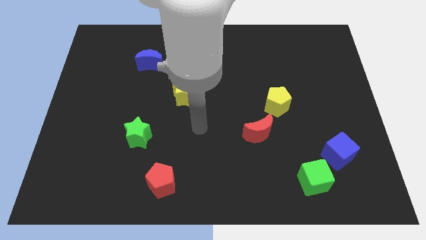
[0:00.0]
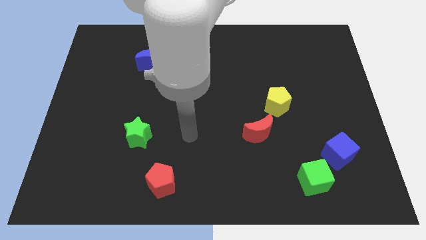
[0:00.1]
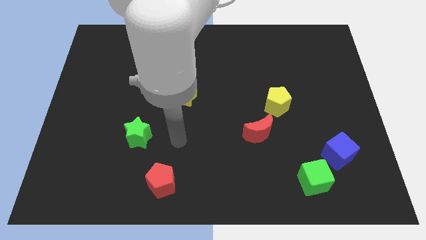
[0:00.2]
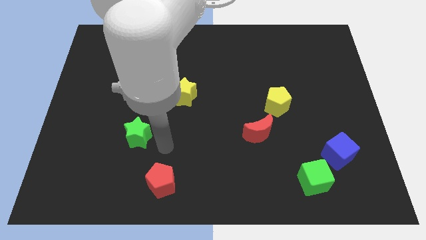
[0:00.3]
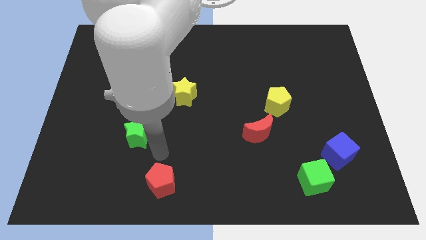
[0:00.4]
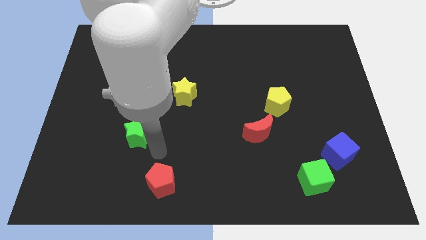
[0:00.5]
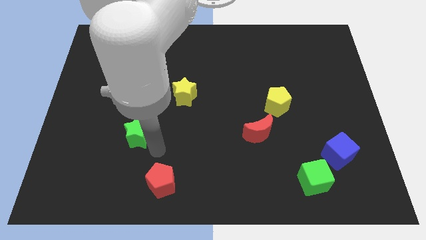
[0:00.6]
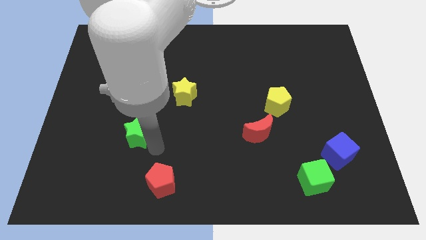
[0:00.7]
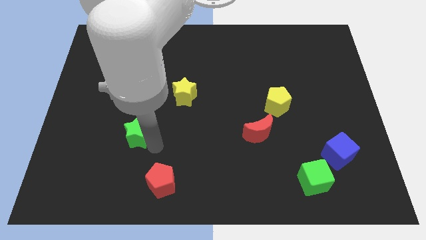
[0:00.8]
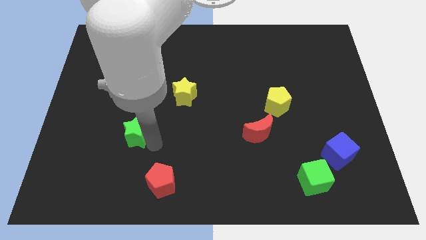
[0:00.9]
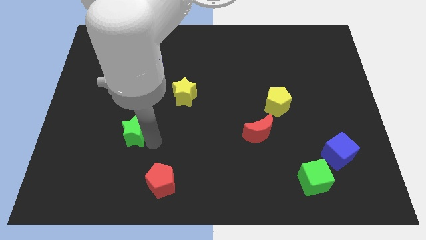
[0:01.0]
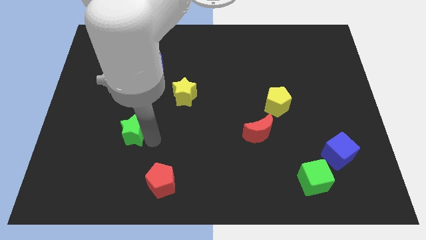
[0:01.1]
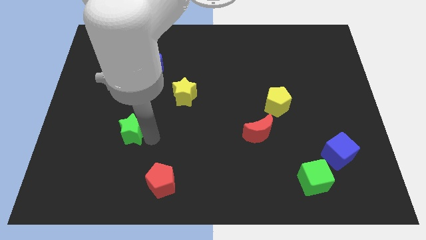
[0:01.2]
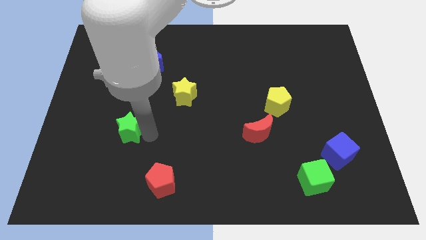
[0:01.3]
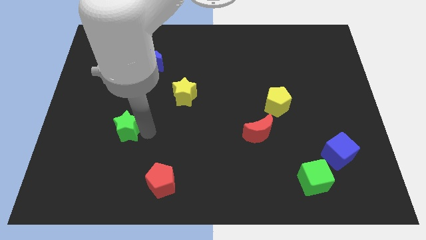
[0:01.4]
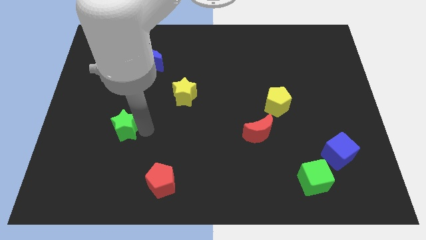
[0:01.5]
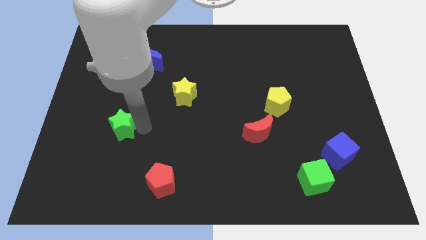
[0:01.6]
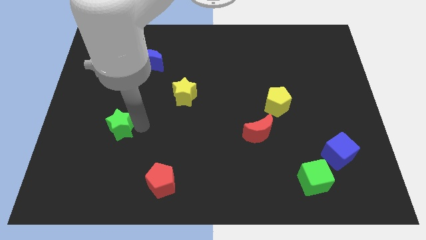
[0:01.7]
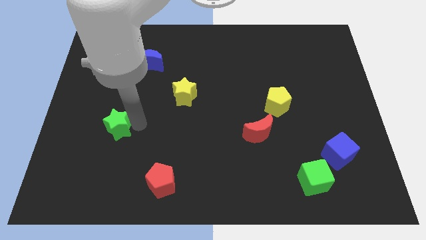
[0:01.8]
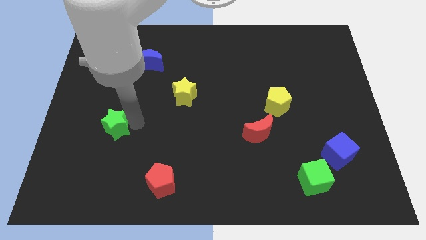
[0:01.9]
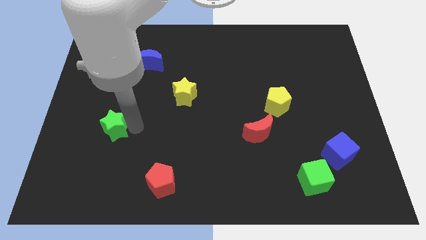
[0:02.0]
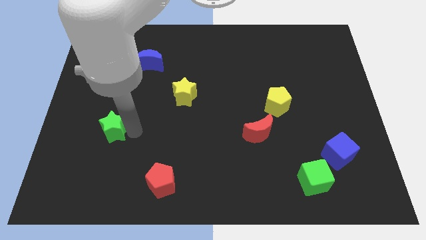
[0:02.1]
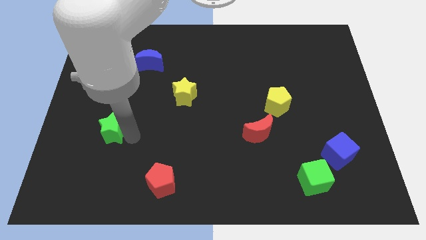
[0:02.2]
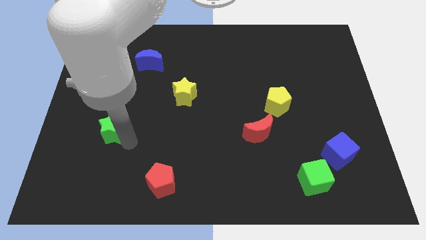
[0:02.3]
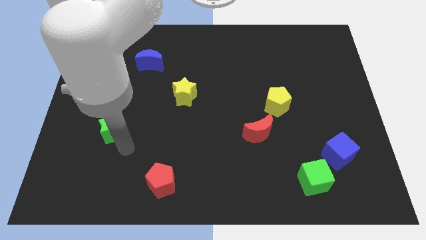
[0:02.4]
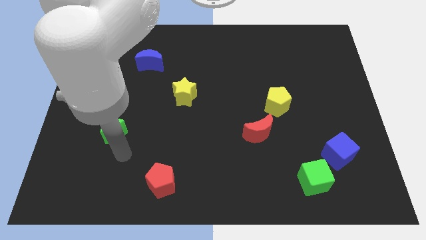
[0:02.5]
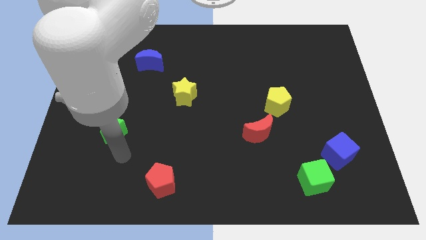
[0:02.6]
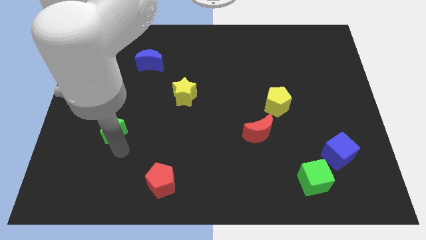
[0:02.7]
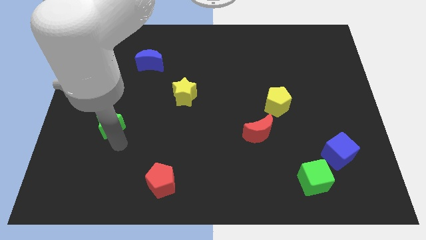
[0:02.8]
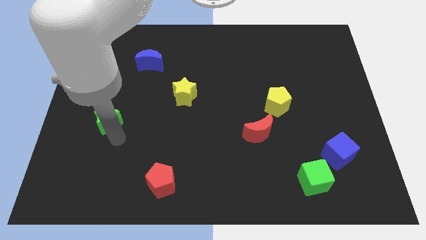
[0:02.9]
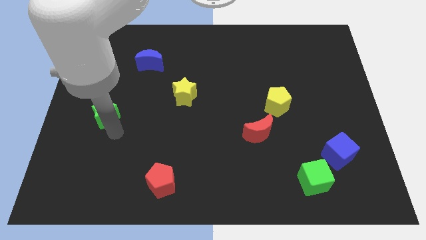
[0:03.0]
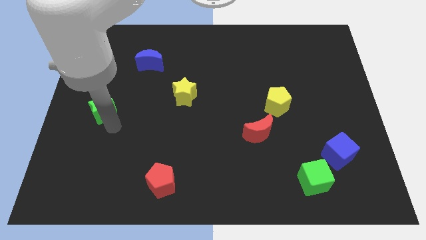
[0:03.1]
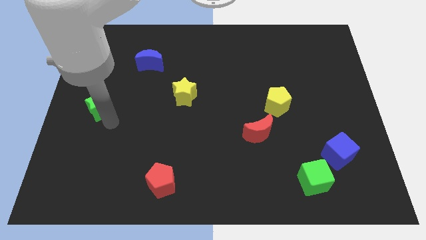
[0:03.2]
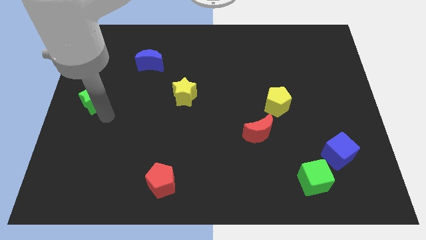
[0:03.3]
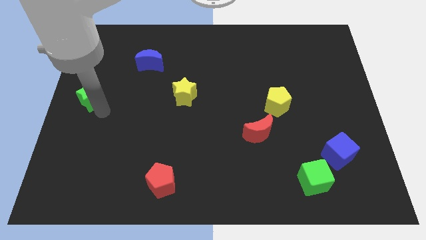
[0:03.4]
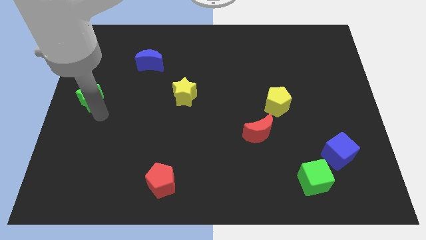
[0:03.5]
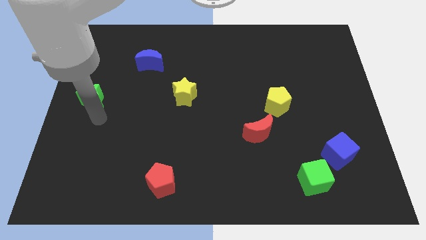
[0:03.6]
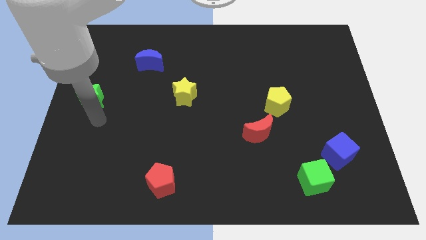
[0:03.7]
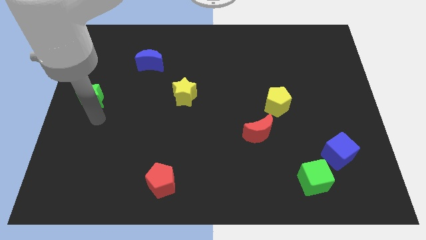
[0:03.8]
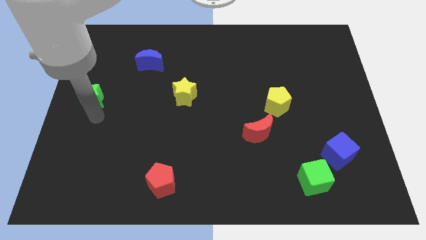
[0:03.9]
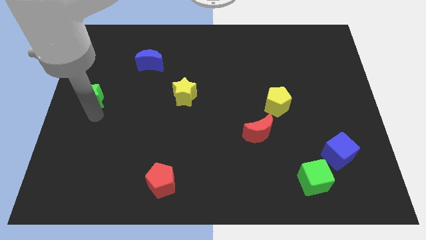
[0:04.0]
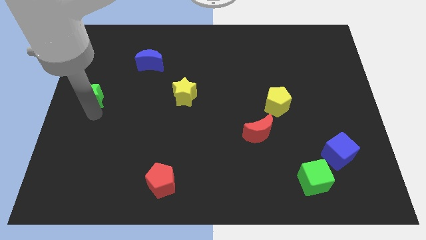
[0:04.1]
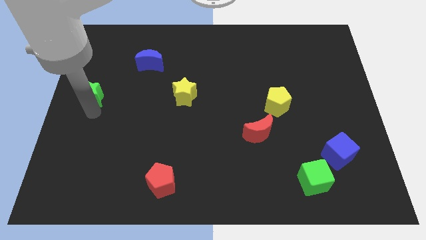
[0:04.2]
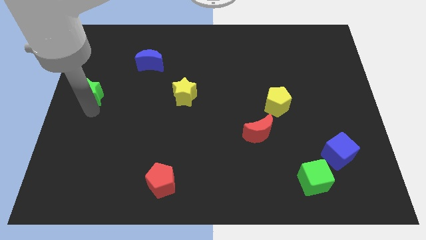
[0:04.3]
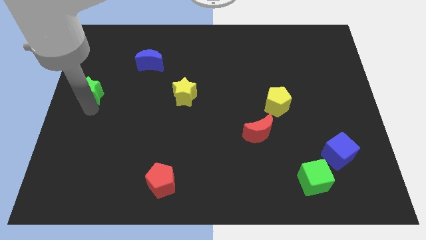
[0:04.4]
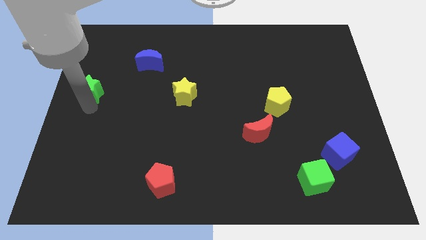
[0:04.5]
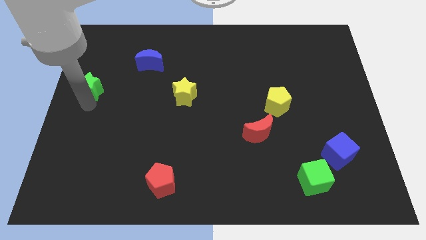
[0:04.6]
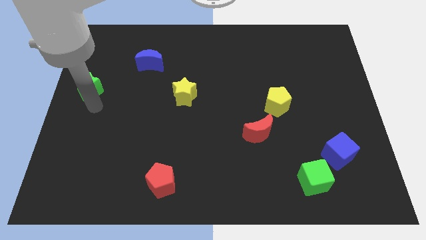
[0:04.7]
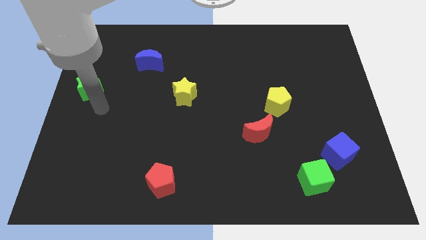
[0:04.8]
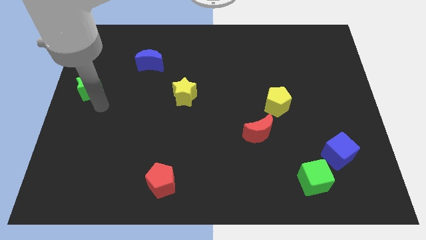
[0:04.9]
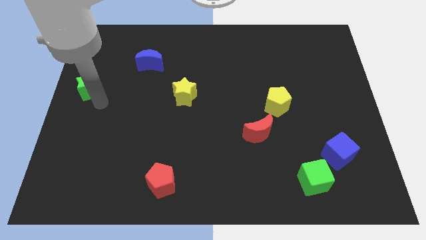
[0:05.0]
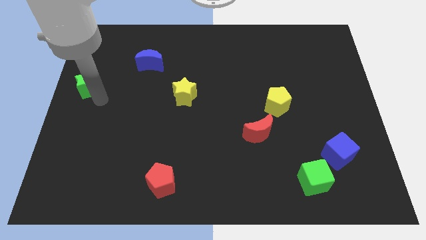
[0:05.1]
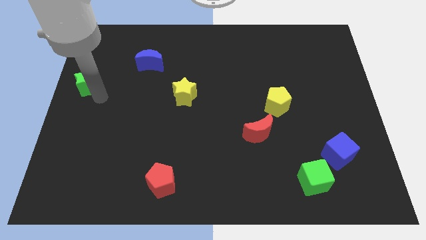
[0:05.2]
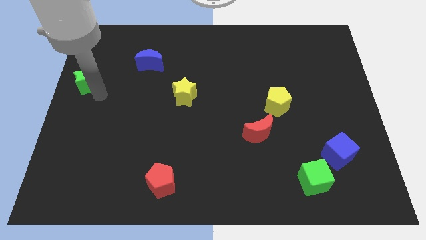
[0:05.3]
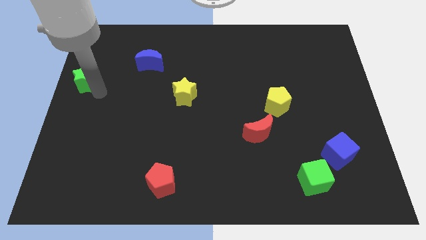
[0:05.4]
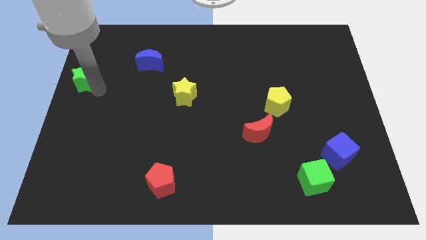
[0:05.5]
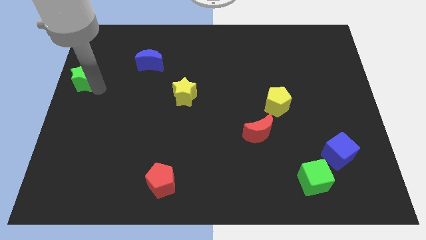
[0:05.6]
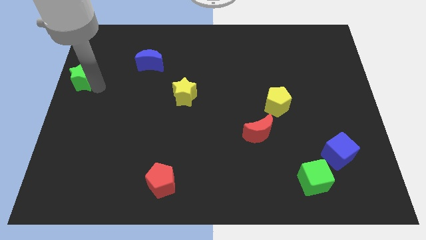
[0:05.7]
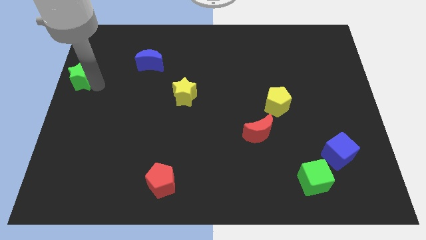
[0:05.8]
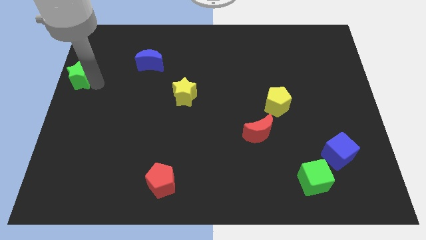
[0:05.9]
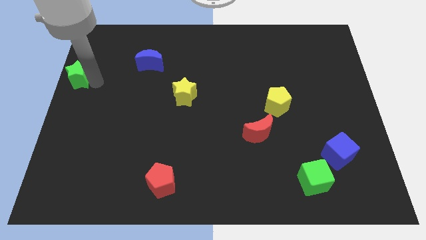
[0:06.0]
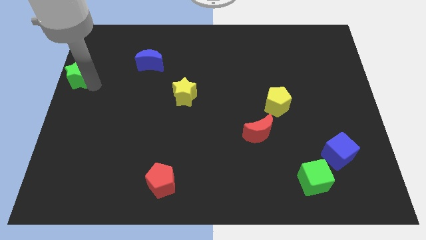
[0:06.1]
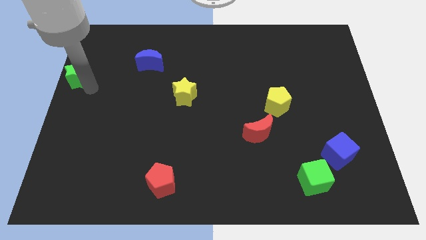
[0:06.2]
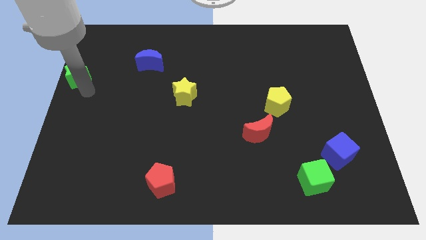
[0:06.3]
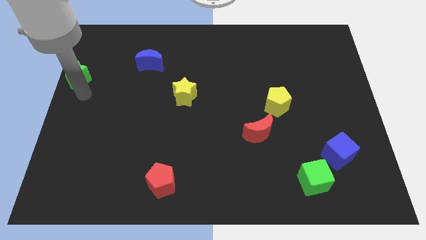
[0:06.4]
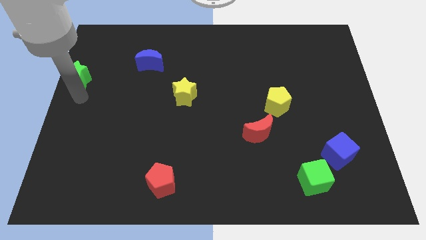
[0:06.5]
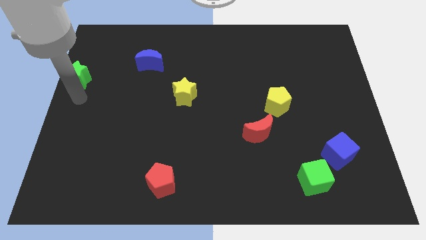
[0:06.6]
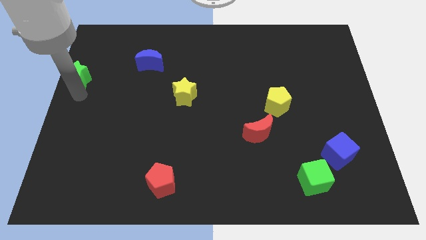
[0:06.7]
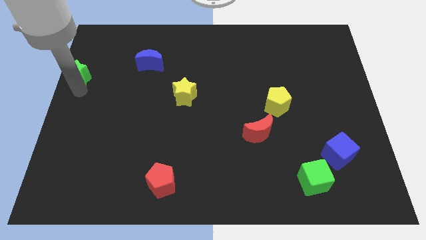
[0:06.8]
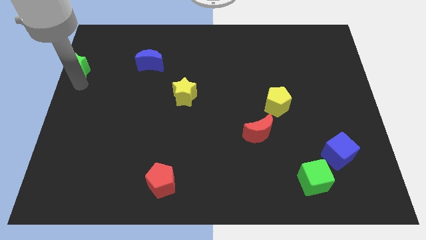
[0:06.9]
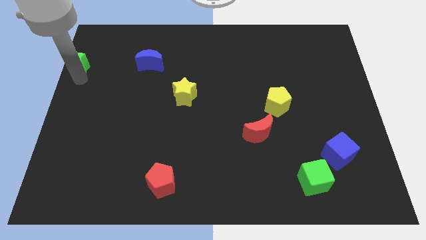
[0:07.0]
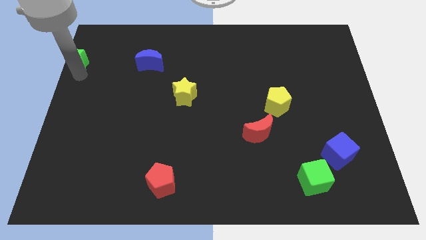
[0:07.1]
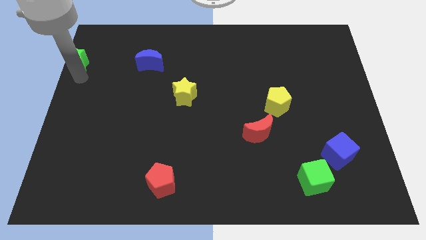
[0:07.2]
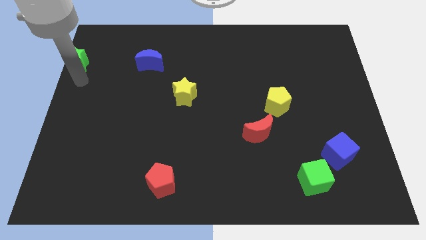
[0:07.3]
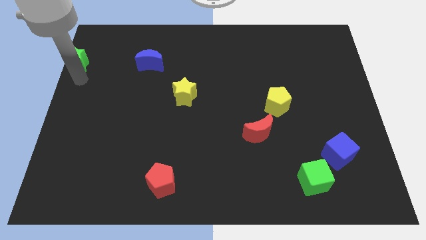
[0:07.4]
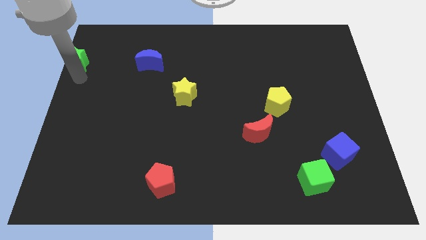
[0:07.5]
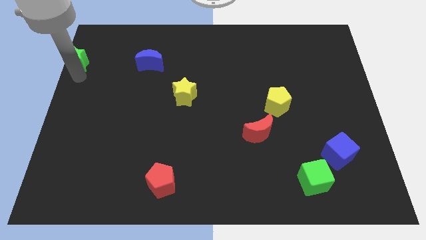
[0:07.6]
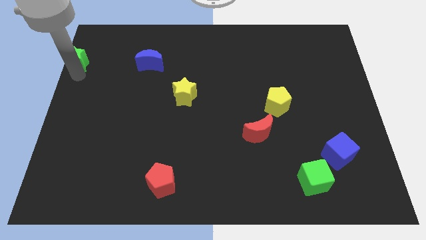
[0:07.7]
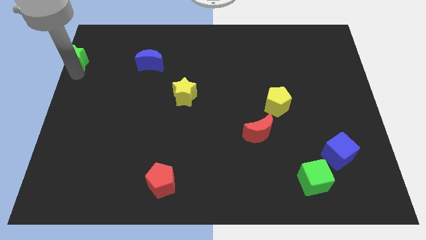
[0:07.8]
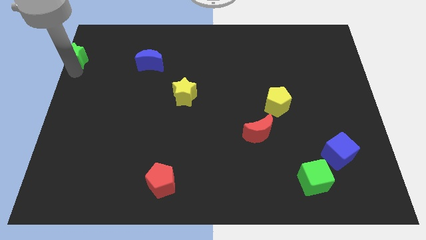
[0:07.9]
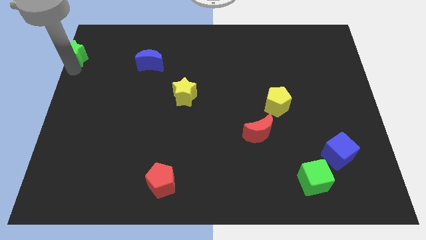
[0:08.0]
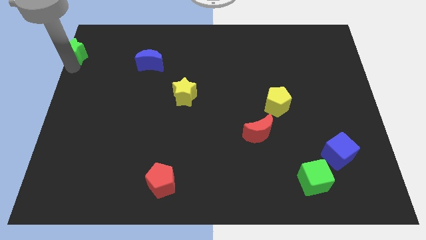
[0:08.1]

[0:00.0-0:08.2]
move the green star to the top left of the board
